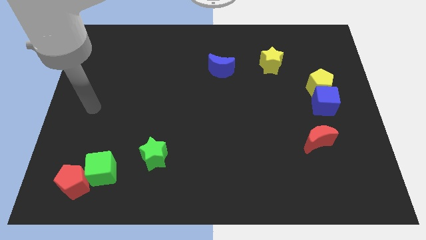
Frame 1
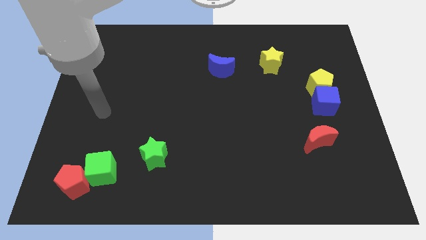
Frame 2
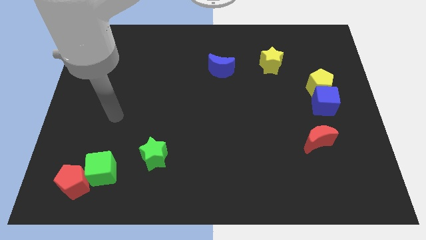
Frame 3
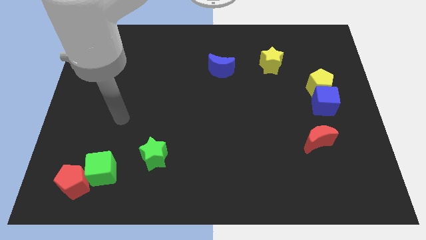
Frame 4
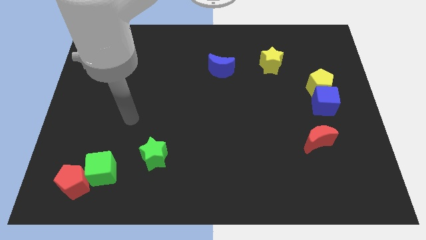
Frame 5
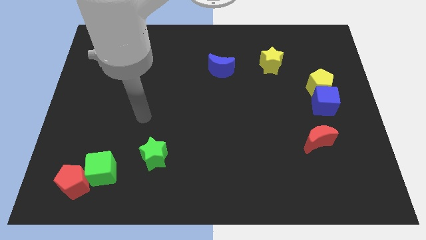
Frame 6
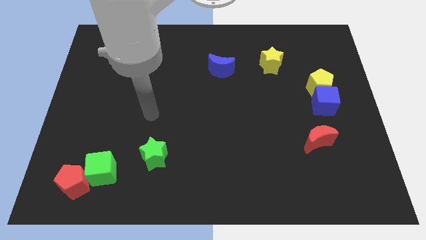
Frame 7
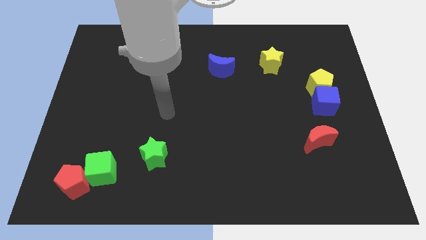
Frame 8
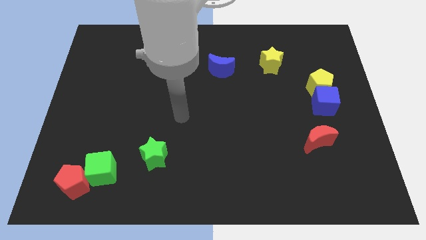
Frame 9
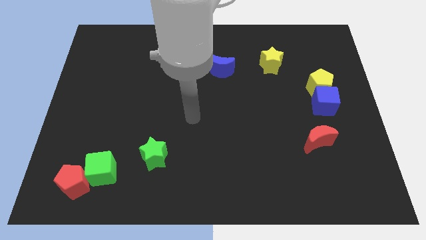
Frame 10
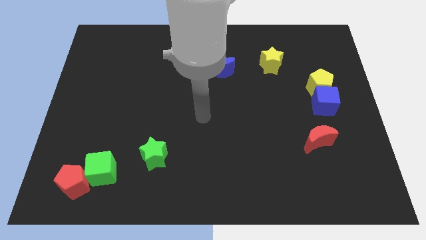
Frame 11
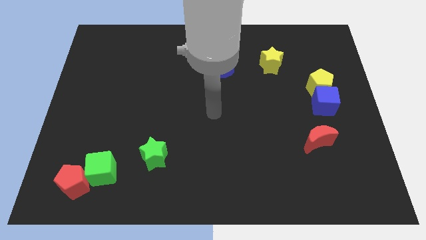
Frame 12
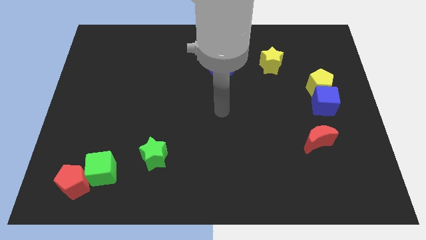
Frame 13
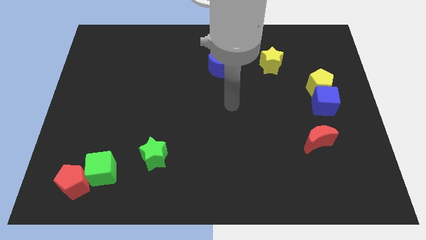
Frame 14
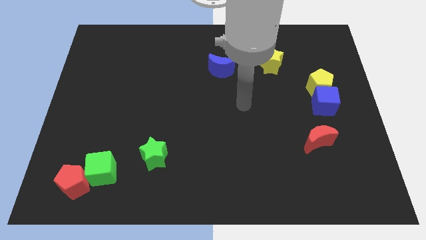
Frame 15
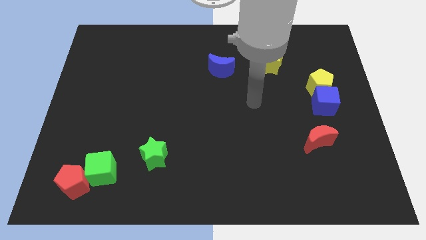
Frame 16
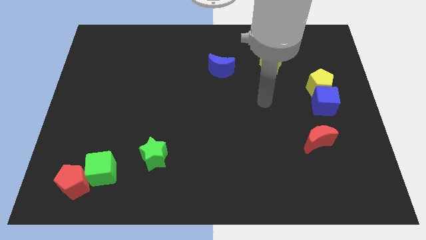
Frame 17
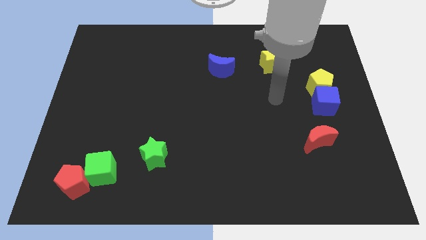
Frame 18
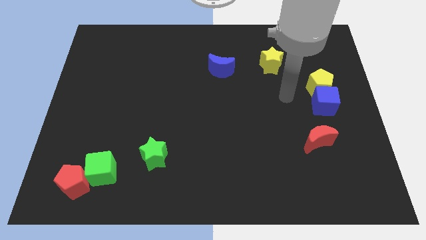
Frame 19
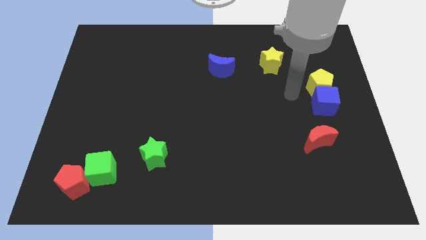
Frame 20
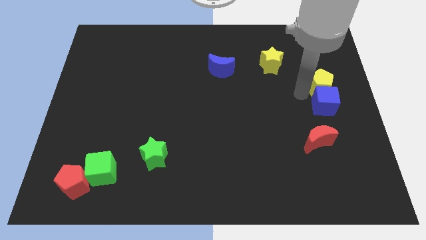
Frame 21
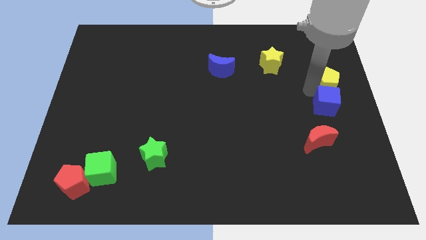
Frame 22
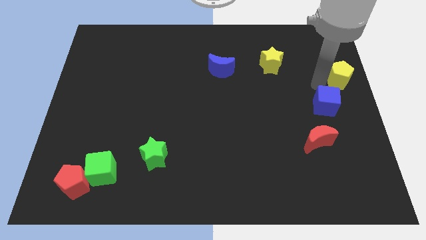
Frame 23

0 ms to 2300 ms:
pull the blue cube apart from the yellow pentagon

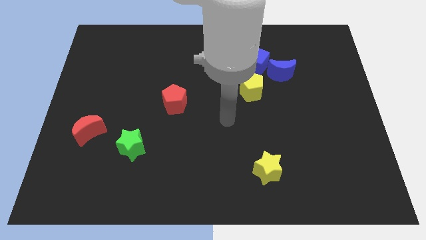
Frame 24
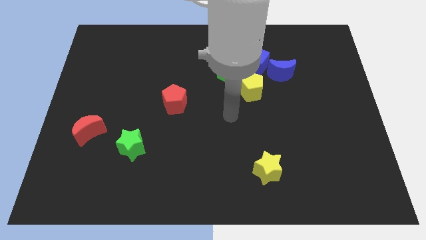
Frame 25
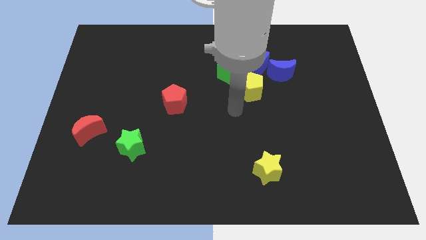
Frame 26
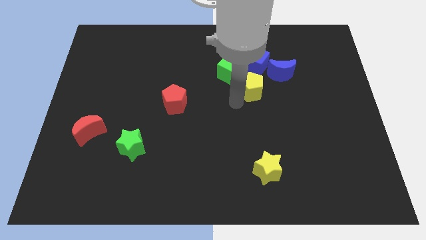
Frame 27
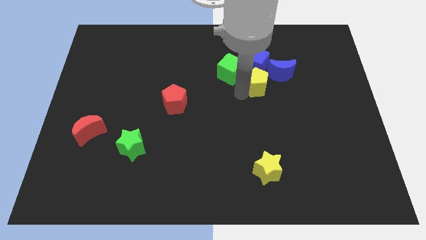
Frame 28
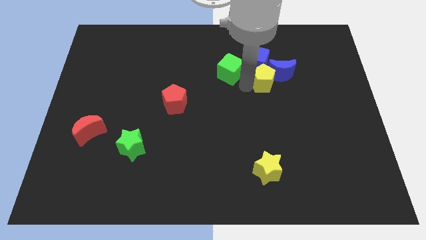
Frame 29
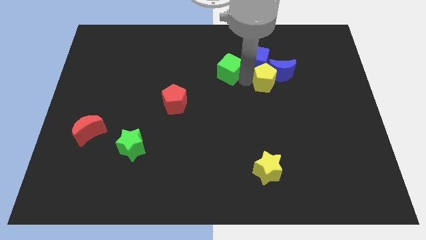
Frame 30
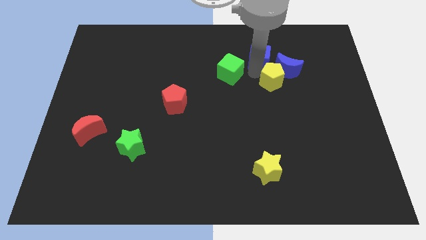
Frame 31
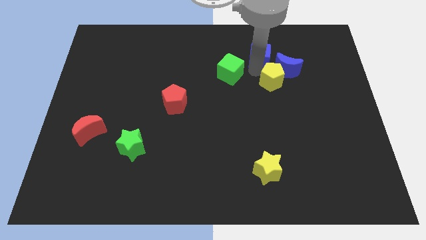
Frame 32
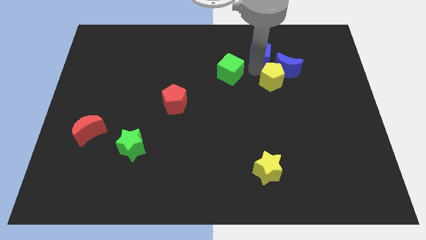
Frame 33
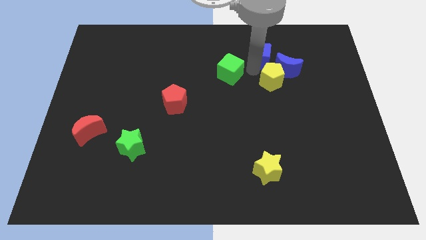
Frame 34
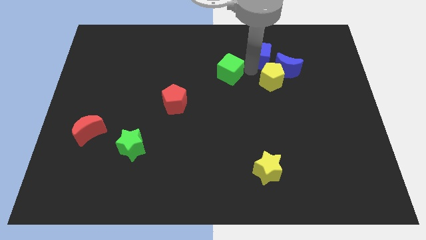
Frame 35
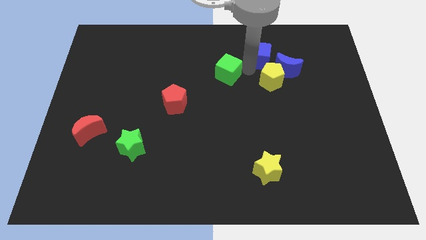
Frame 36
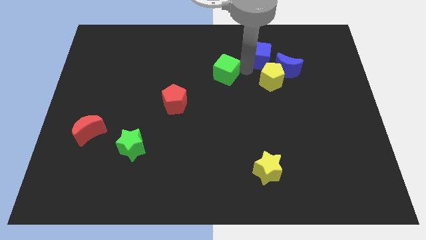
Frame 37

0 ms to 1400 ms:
move the green cube away from the blue cube and yellow pentagon

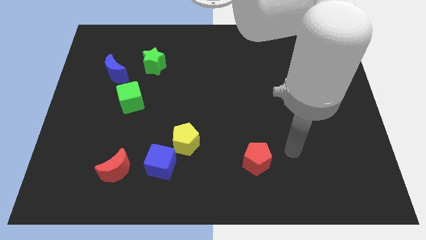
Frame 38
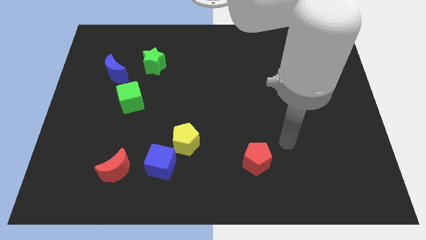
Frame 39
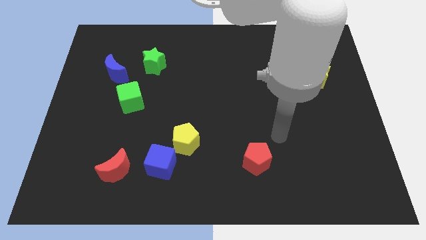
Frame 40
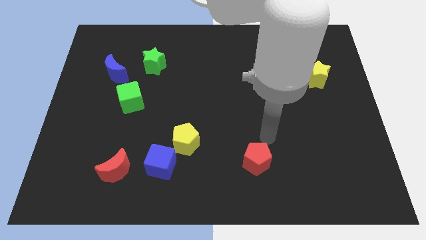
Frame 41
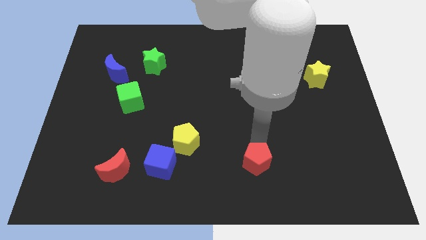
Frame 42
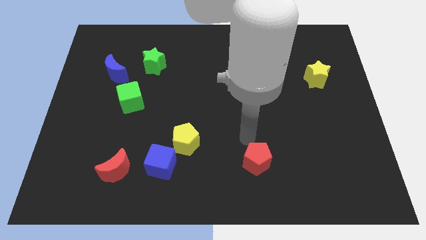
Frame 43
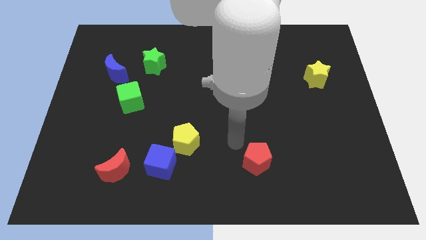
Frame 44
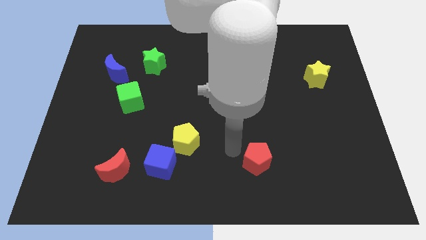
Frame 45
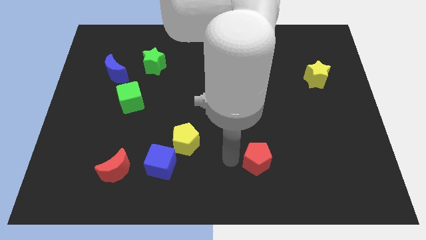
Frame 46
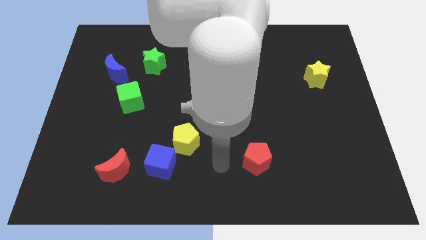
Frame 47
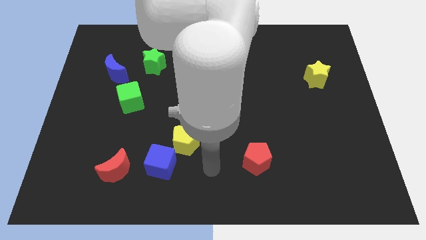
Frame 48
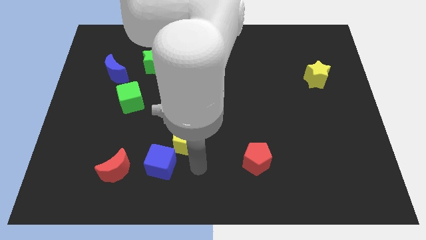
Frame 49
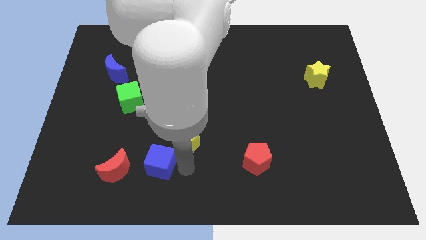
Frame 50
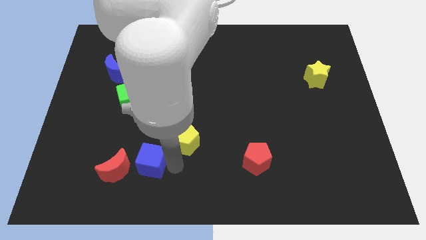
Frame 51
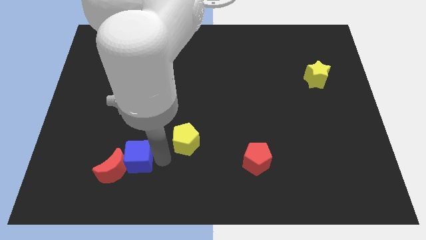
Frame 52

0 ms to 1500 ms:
move the yellow pentagon away from the blue cube

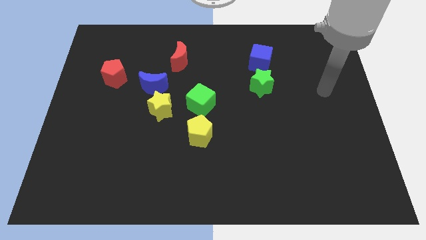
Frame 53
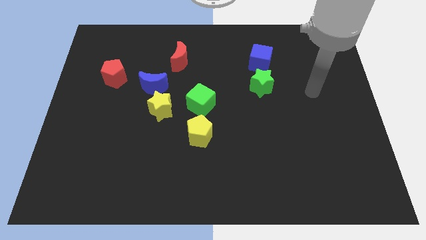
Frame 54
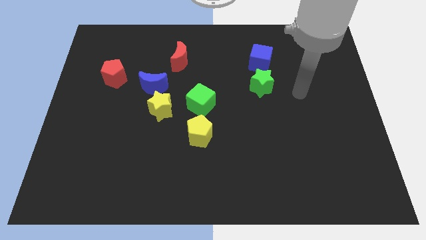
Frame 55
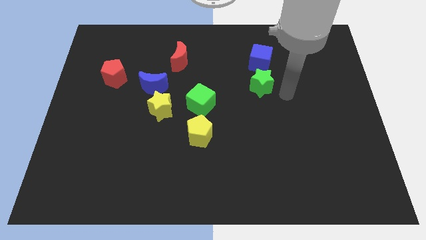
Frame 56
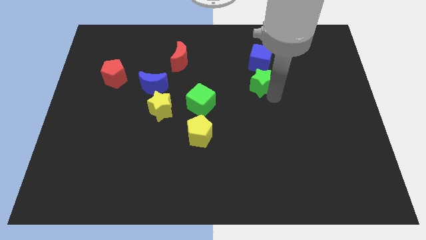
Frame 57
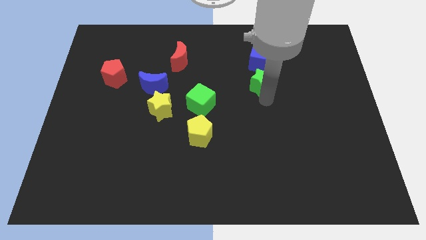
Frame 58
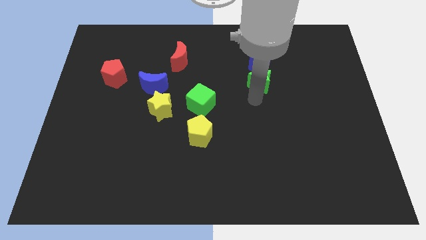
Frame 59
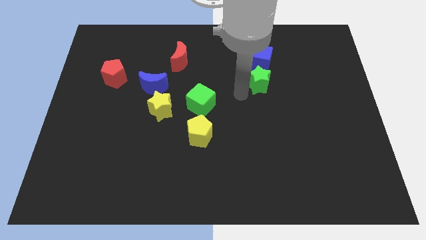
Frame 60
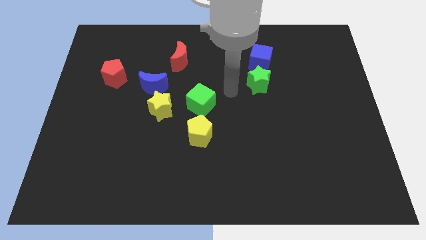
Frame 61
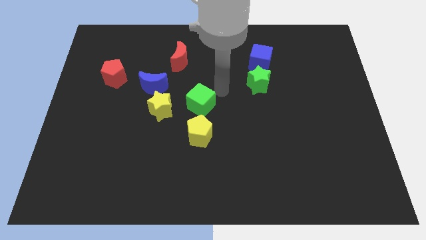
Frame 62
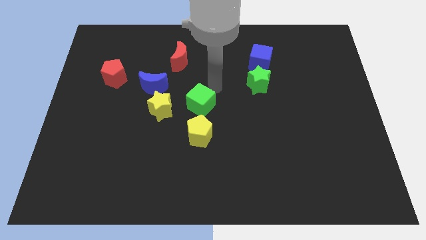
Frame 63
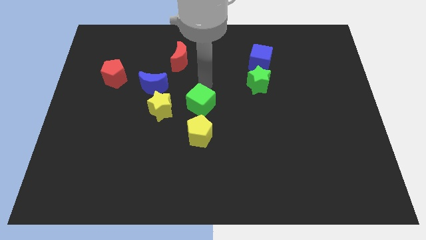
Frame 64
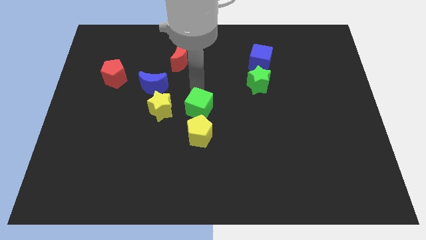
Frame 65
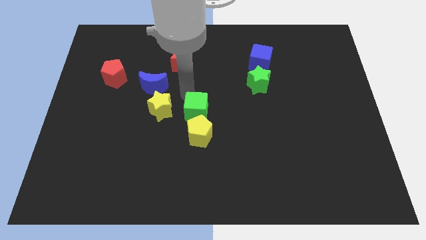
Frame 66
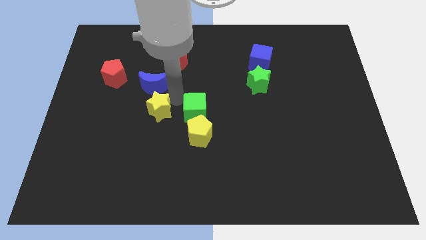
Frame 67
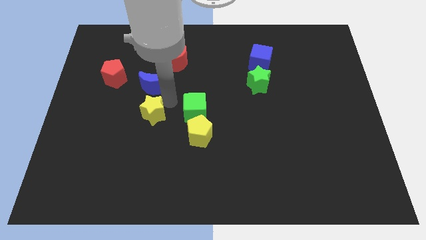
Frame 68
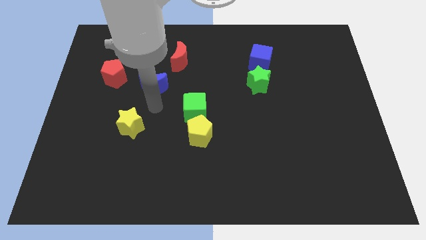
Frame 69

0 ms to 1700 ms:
move the blue moon away from the yellow star

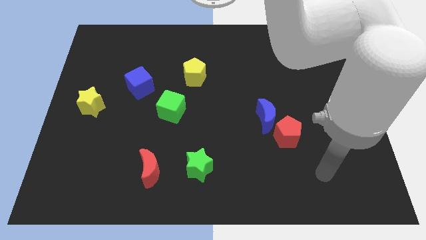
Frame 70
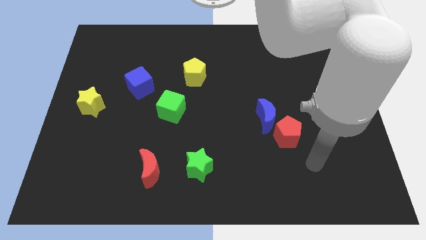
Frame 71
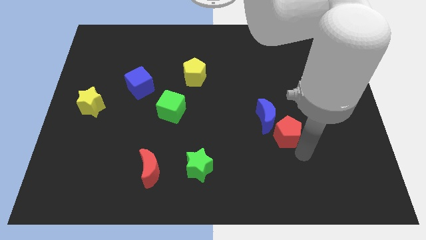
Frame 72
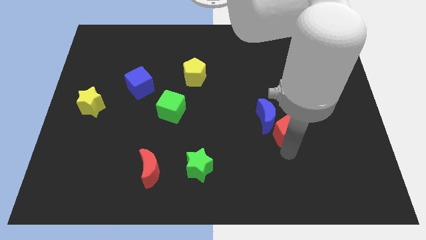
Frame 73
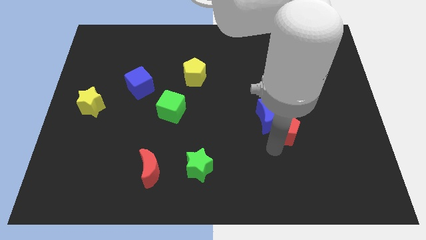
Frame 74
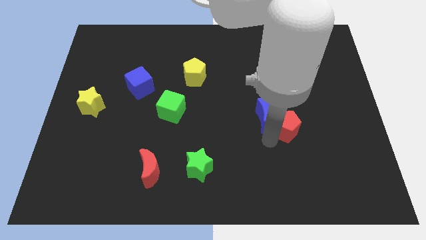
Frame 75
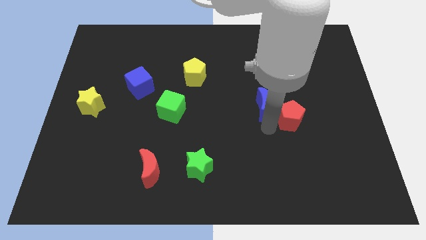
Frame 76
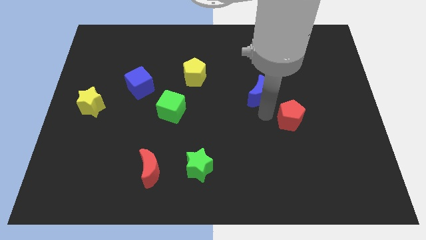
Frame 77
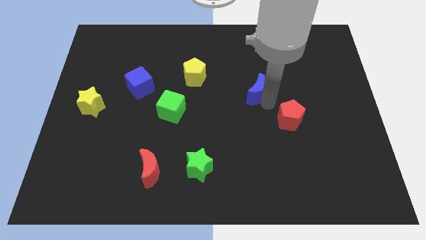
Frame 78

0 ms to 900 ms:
separate the red pentagon from the blue moon

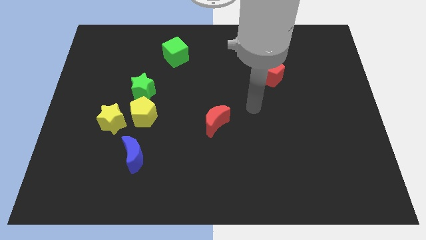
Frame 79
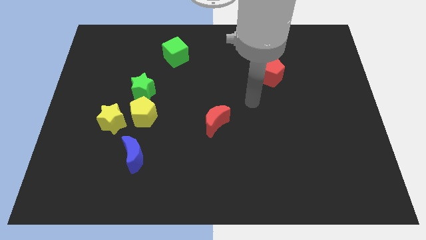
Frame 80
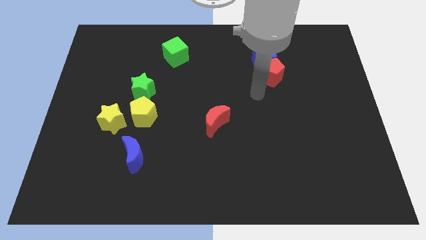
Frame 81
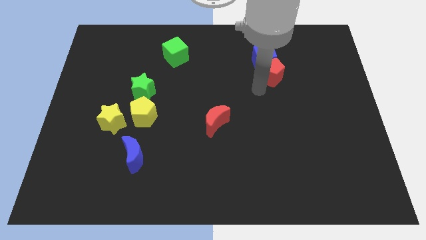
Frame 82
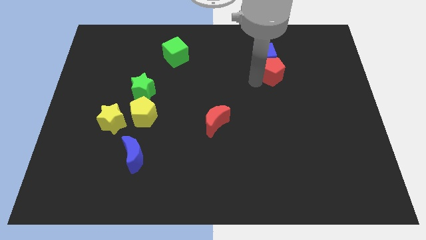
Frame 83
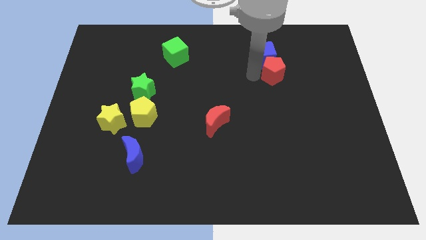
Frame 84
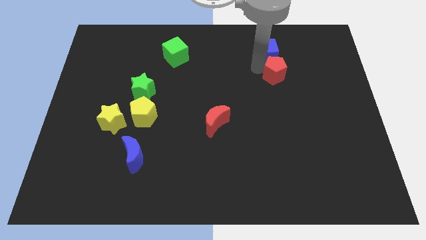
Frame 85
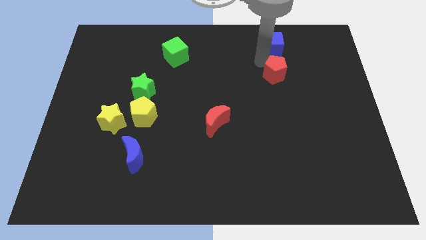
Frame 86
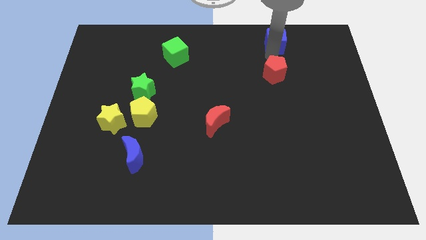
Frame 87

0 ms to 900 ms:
separate the red pentagon from the blue cube

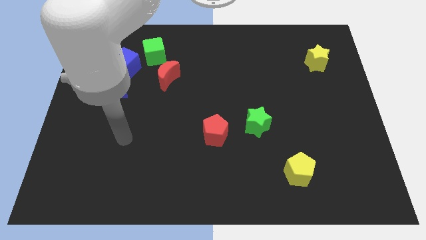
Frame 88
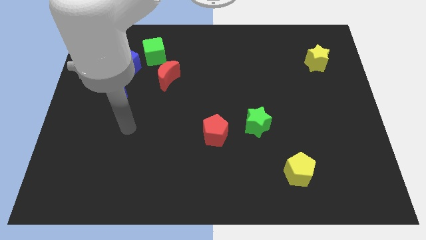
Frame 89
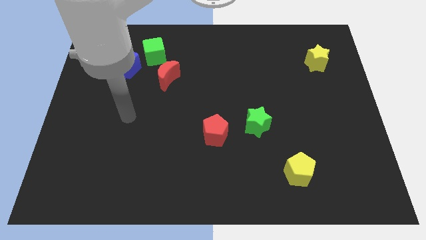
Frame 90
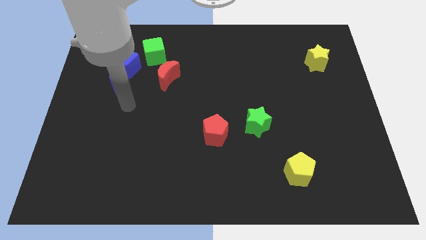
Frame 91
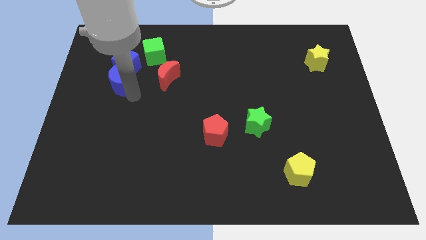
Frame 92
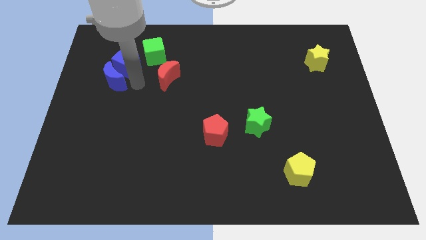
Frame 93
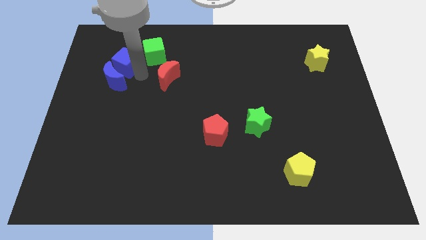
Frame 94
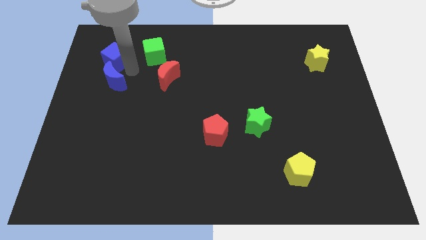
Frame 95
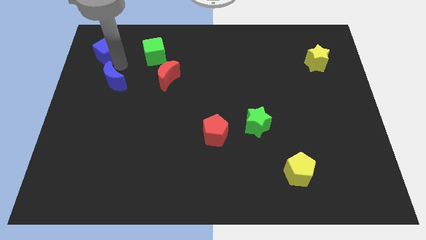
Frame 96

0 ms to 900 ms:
pull the blue moon apart from the blue cube
